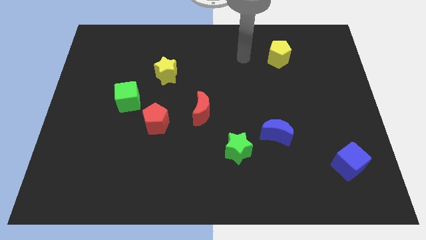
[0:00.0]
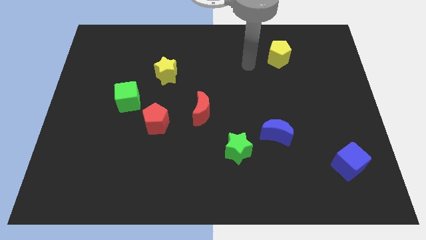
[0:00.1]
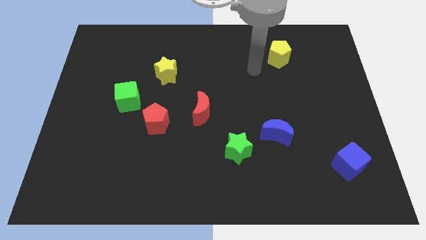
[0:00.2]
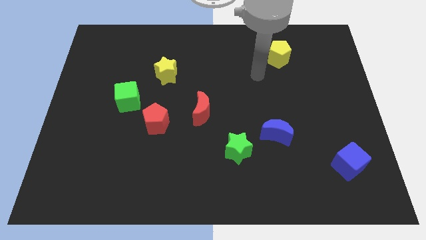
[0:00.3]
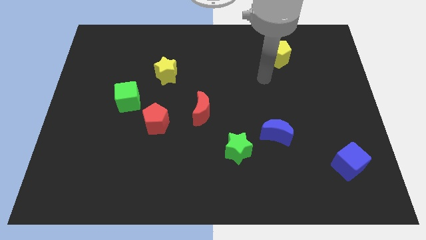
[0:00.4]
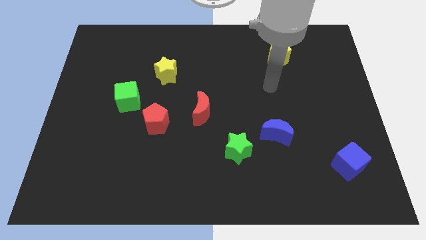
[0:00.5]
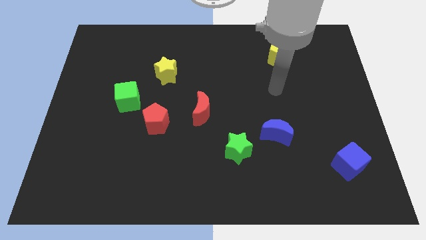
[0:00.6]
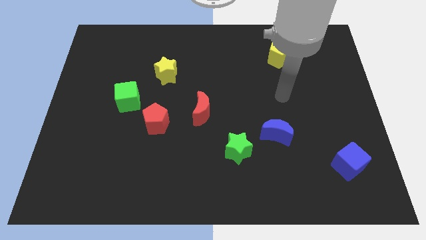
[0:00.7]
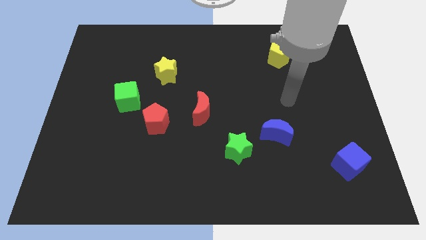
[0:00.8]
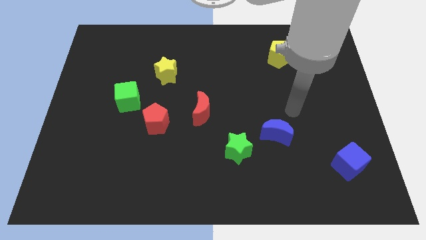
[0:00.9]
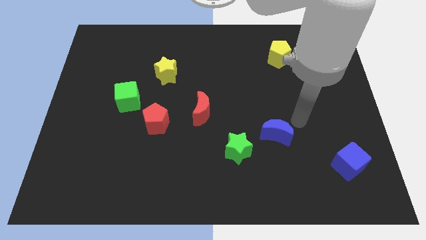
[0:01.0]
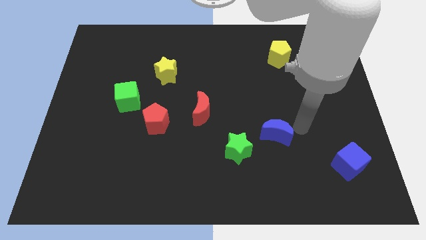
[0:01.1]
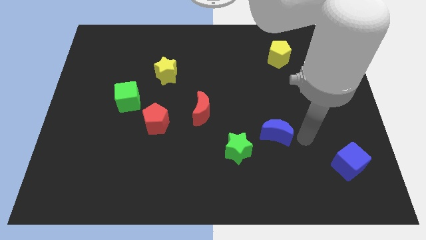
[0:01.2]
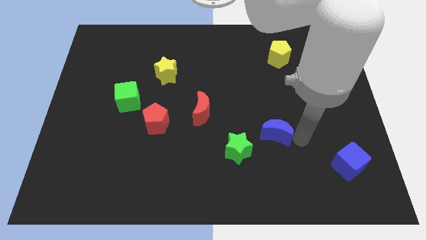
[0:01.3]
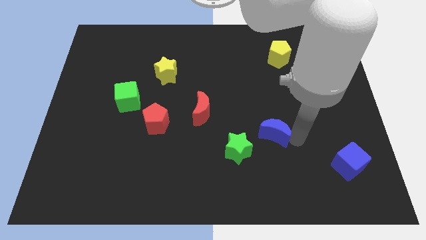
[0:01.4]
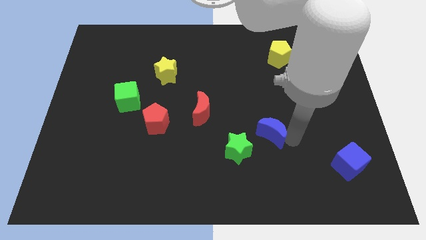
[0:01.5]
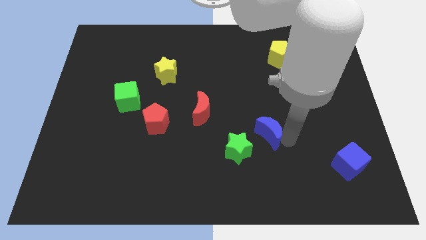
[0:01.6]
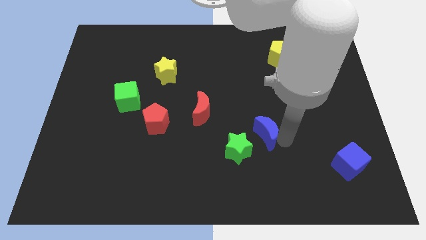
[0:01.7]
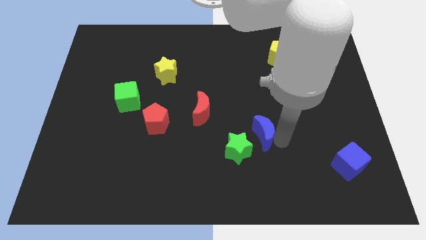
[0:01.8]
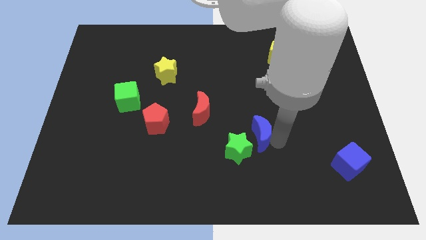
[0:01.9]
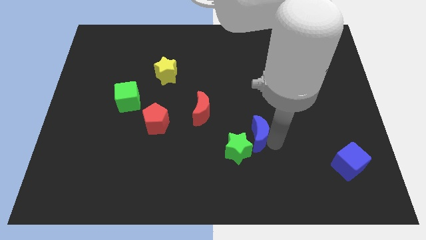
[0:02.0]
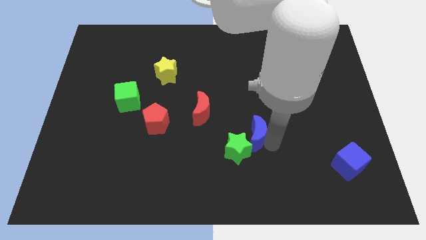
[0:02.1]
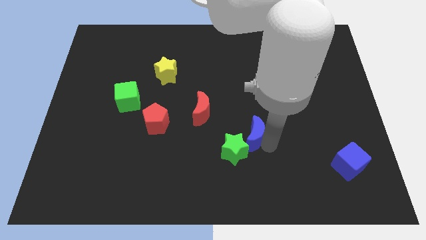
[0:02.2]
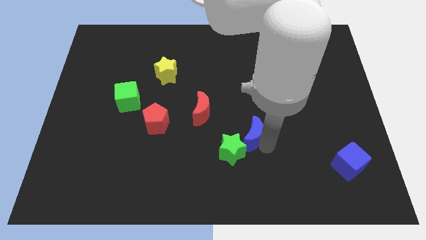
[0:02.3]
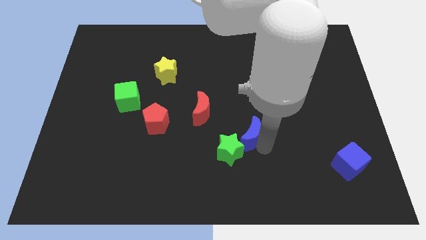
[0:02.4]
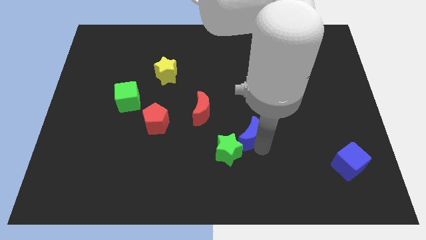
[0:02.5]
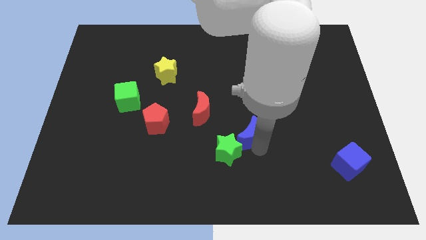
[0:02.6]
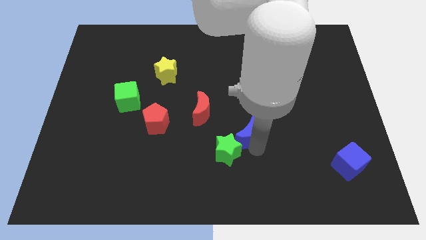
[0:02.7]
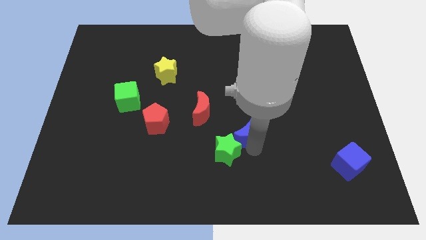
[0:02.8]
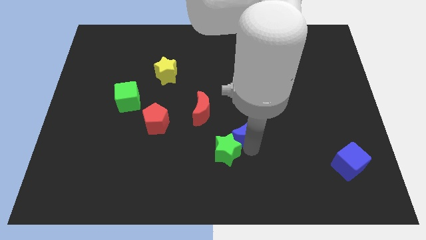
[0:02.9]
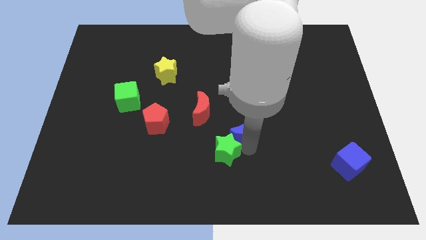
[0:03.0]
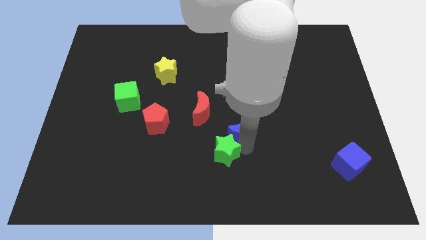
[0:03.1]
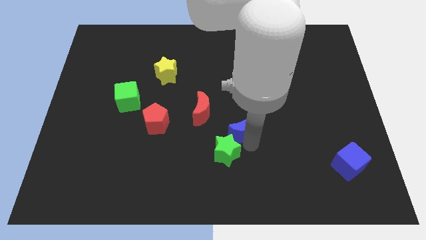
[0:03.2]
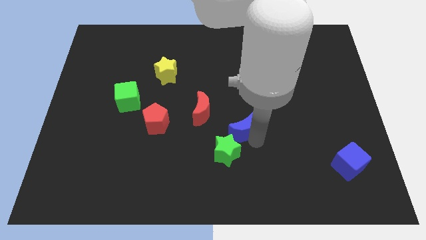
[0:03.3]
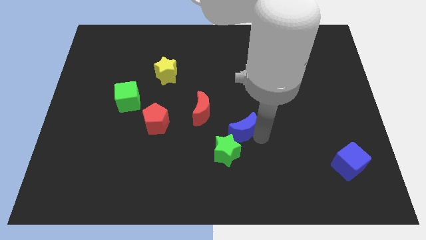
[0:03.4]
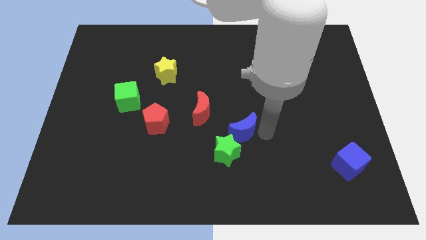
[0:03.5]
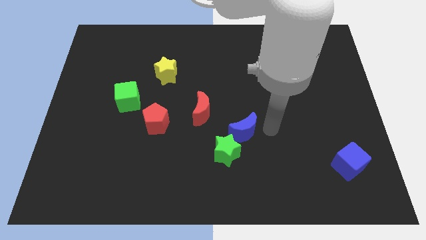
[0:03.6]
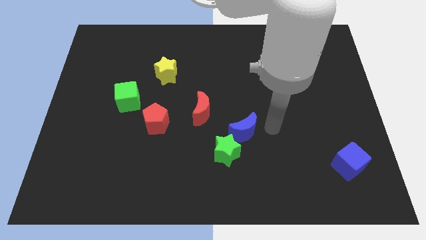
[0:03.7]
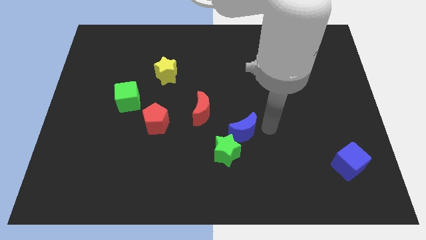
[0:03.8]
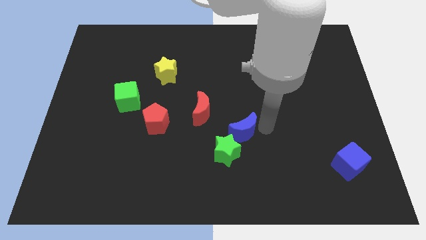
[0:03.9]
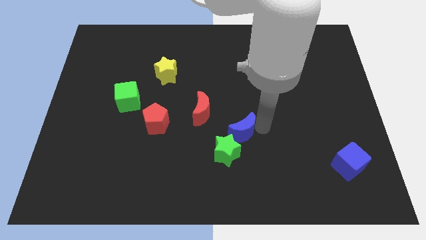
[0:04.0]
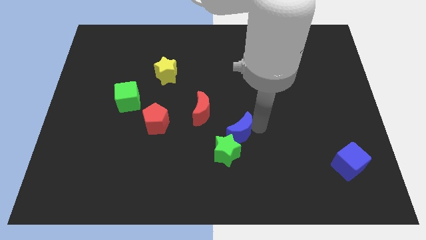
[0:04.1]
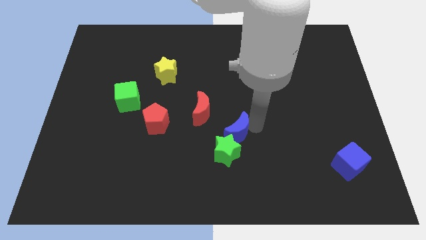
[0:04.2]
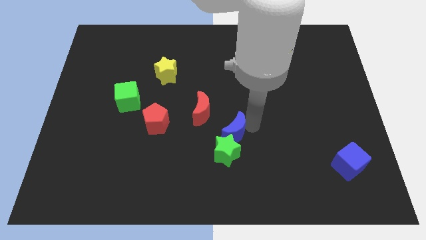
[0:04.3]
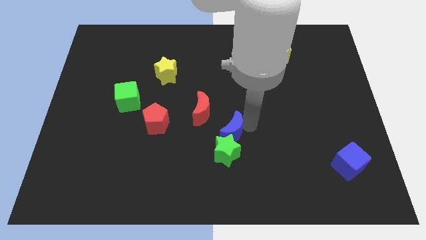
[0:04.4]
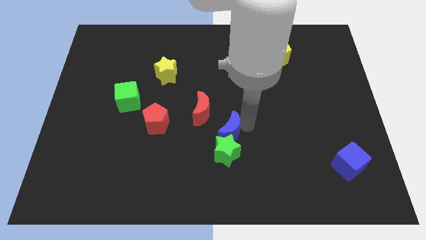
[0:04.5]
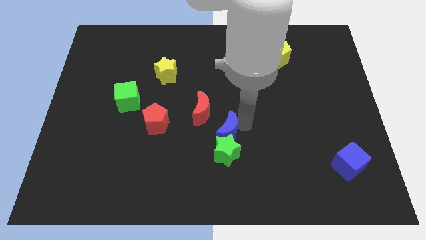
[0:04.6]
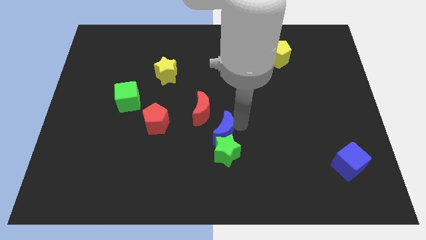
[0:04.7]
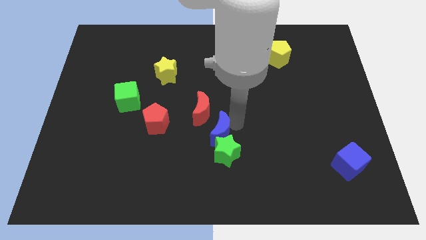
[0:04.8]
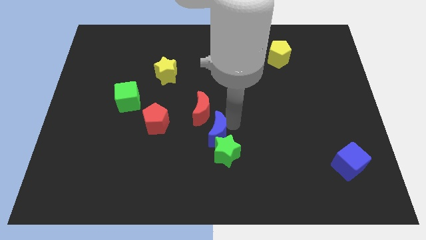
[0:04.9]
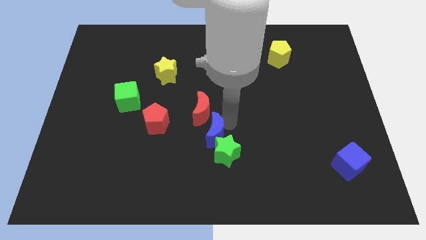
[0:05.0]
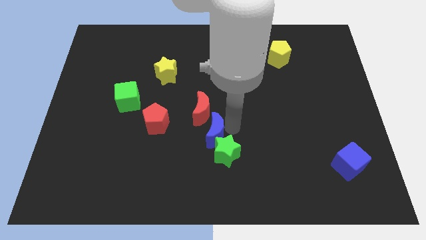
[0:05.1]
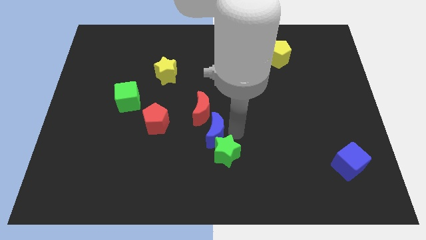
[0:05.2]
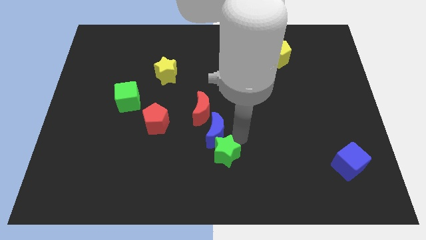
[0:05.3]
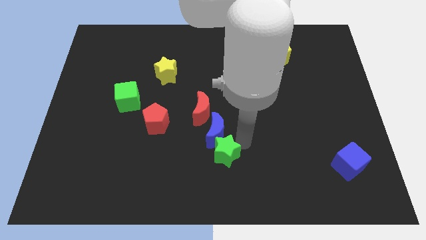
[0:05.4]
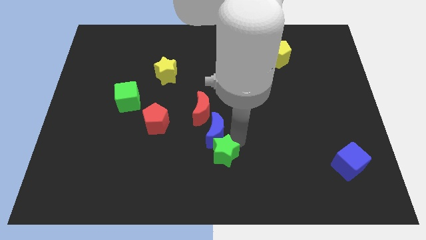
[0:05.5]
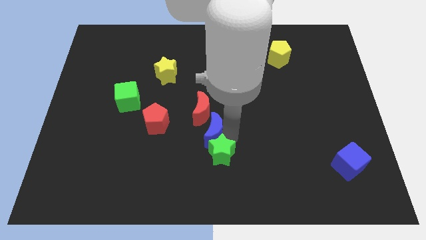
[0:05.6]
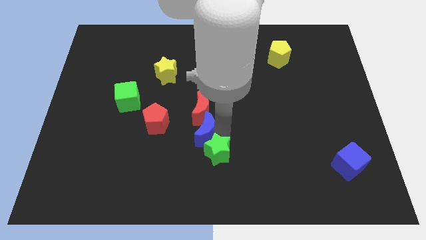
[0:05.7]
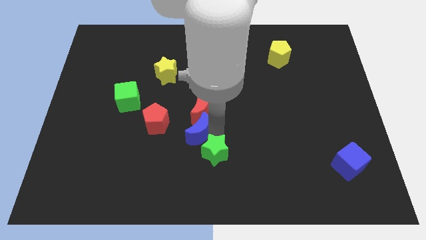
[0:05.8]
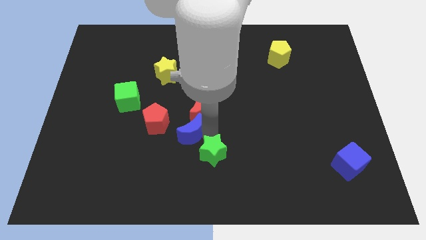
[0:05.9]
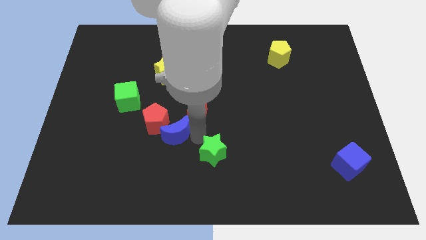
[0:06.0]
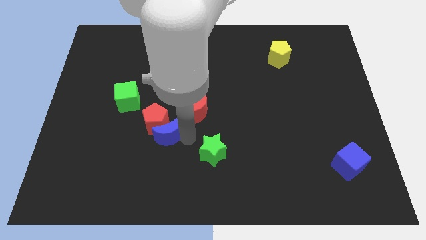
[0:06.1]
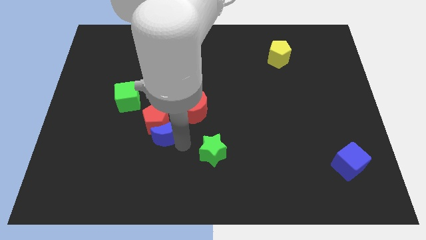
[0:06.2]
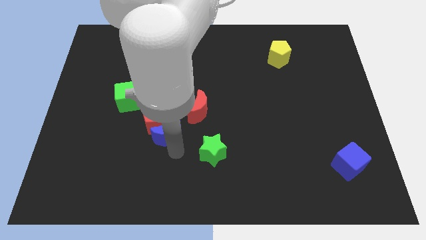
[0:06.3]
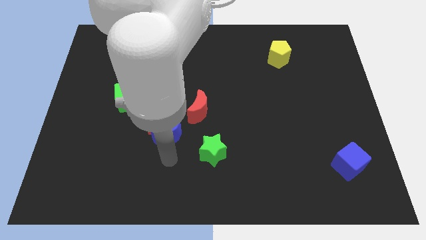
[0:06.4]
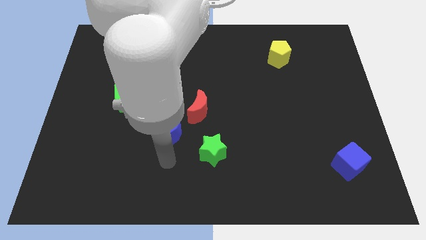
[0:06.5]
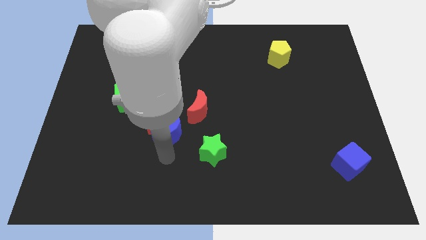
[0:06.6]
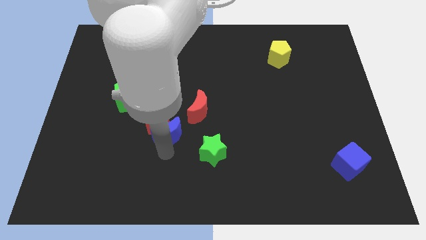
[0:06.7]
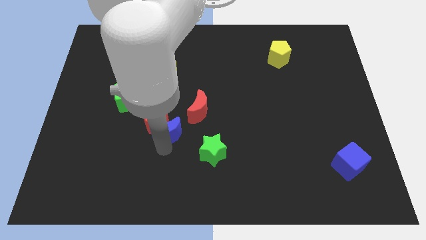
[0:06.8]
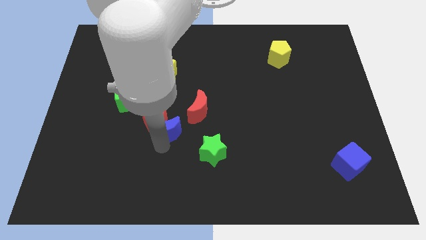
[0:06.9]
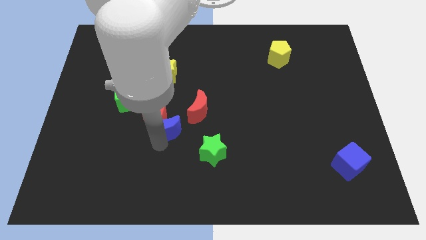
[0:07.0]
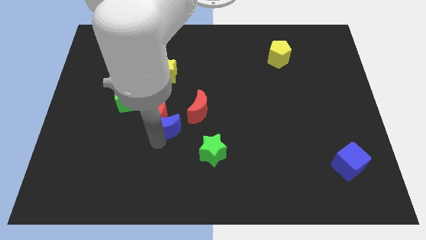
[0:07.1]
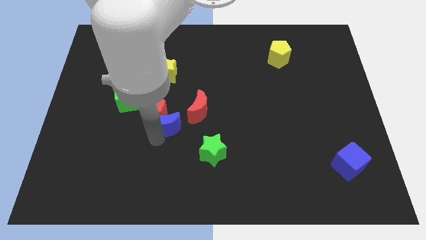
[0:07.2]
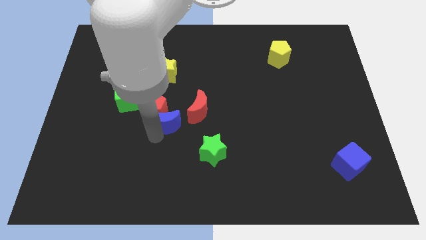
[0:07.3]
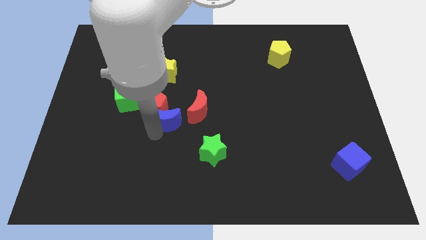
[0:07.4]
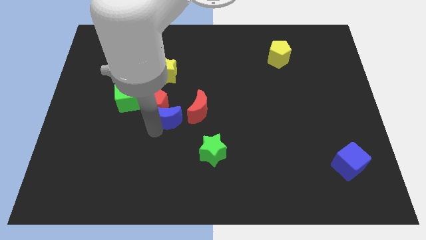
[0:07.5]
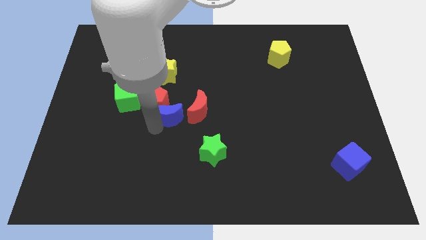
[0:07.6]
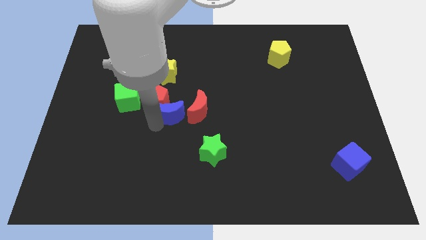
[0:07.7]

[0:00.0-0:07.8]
slide the blue moon just right of the green cube
